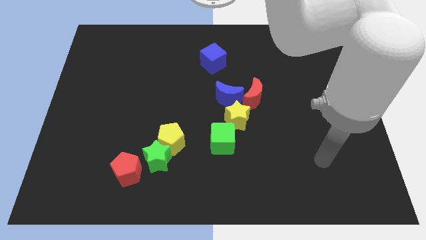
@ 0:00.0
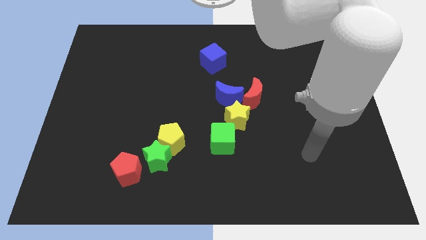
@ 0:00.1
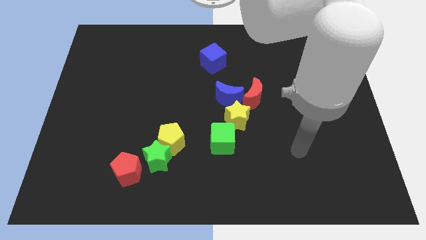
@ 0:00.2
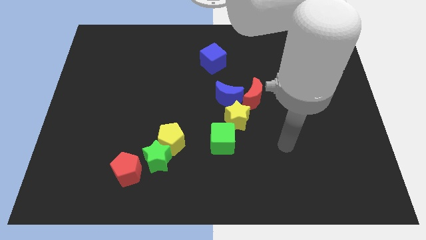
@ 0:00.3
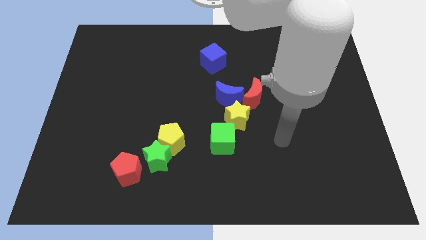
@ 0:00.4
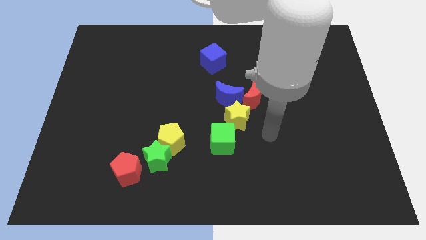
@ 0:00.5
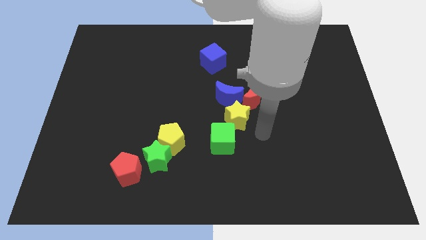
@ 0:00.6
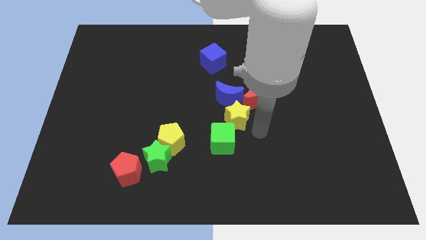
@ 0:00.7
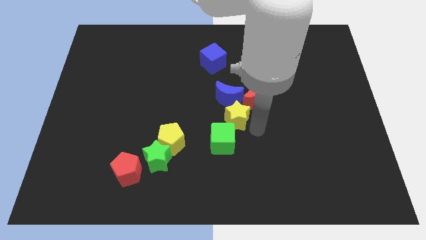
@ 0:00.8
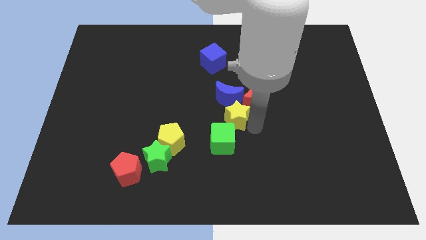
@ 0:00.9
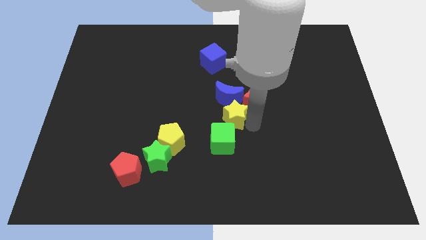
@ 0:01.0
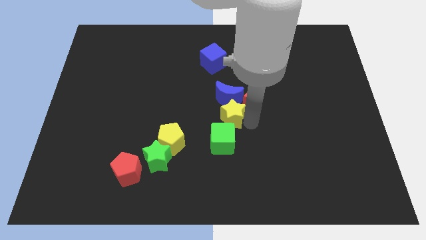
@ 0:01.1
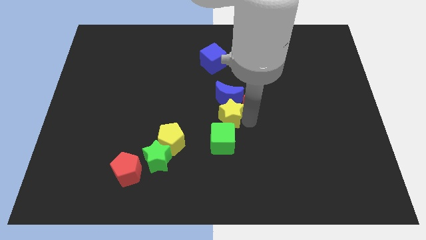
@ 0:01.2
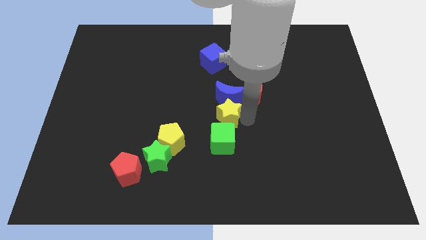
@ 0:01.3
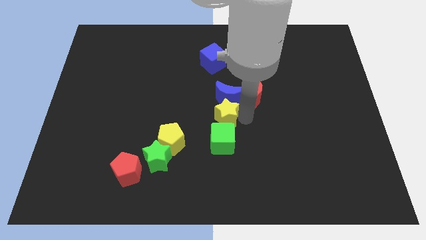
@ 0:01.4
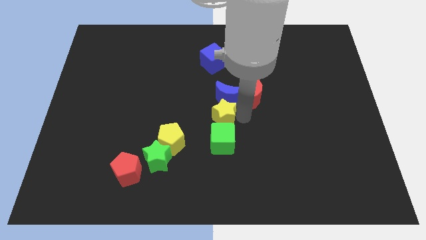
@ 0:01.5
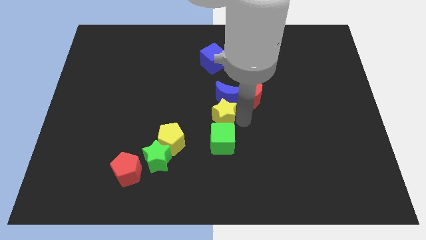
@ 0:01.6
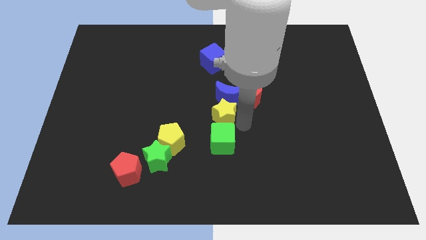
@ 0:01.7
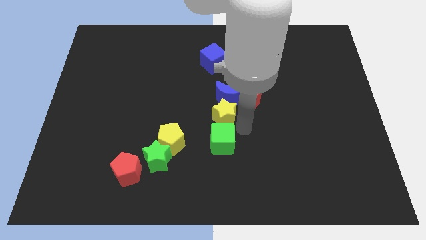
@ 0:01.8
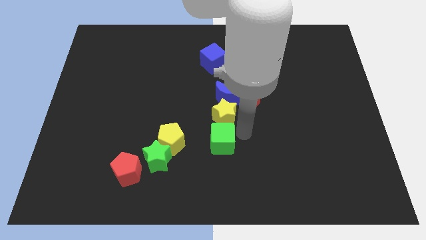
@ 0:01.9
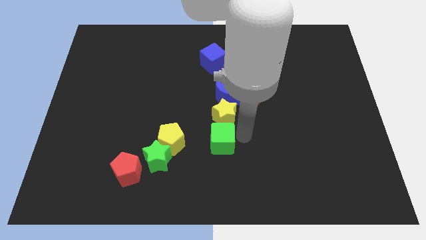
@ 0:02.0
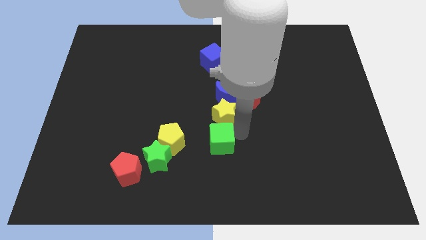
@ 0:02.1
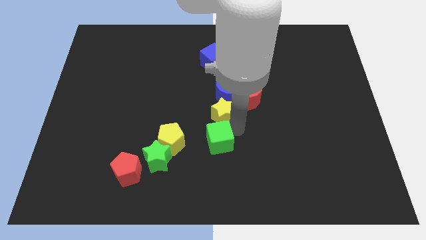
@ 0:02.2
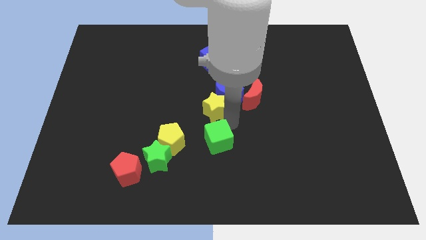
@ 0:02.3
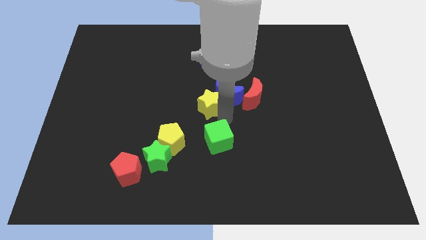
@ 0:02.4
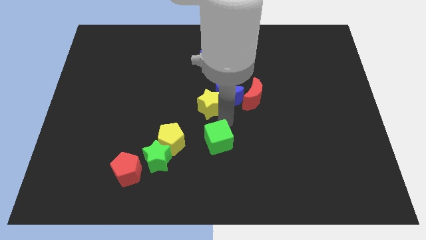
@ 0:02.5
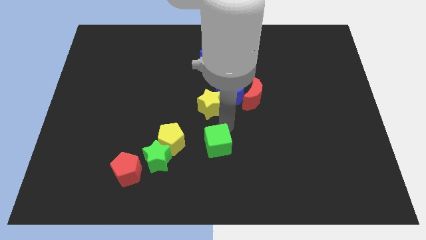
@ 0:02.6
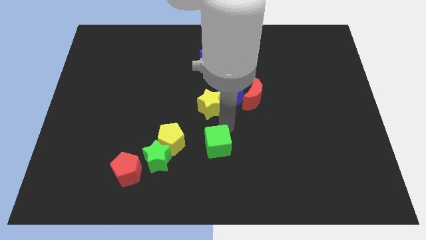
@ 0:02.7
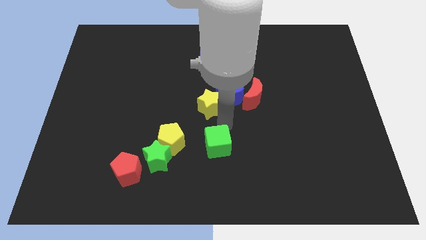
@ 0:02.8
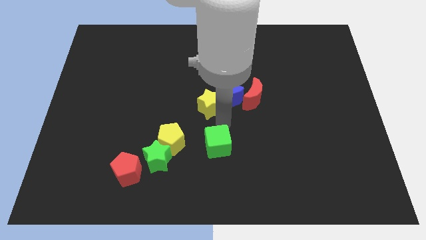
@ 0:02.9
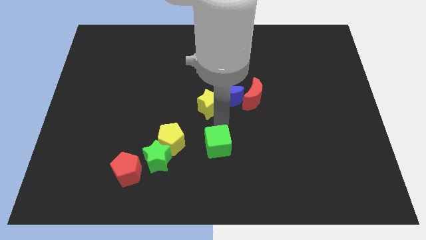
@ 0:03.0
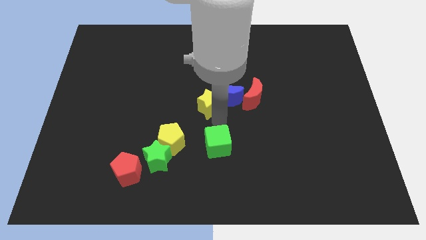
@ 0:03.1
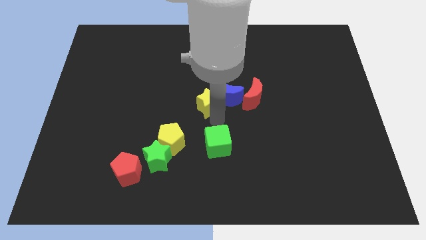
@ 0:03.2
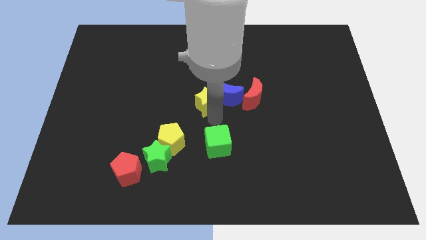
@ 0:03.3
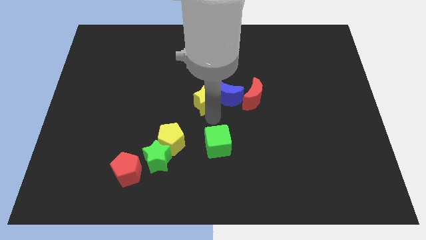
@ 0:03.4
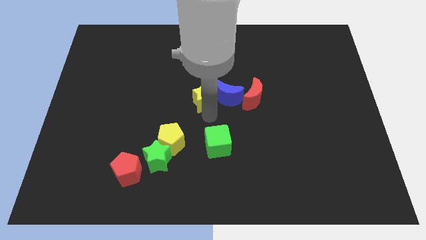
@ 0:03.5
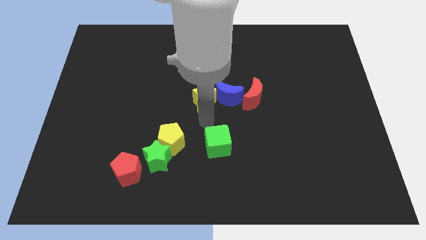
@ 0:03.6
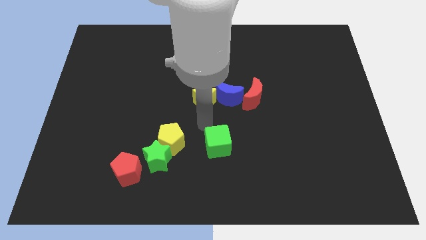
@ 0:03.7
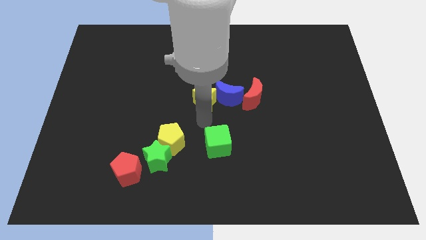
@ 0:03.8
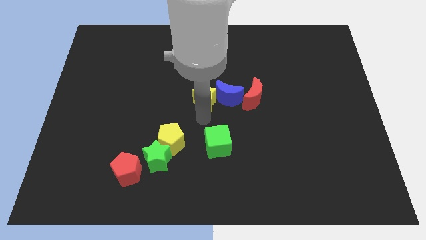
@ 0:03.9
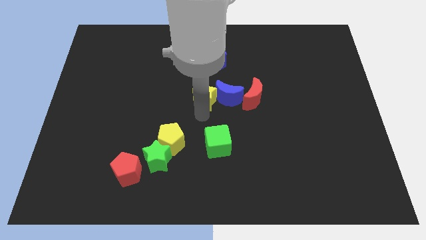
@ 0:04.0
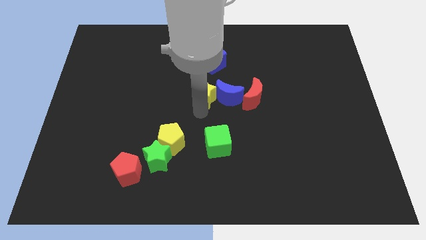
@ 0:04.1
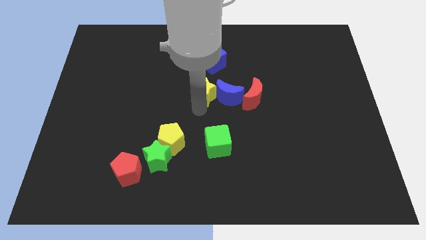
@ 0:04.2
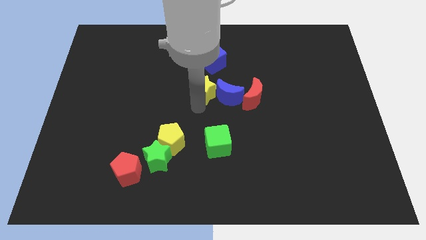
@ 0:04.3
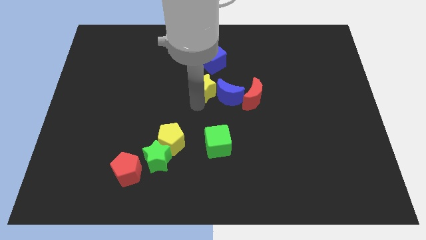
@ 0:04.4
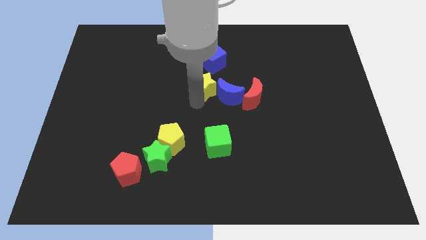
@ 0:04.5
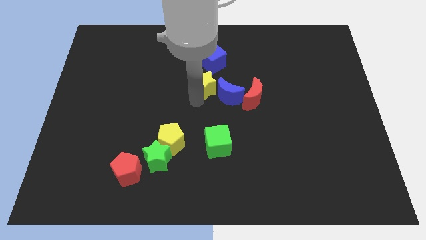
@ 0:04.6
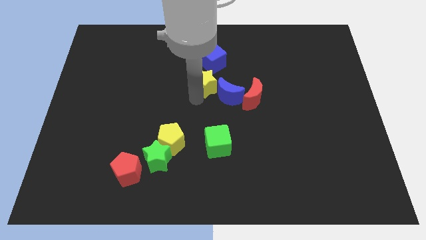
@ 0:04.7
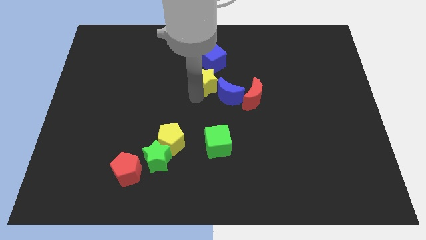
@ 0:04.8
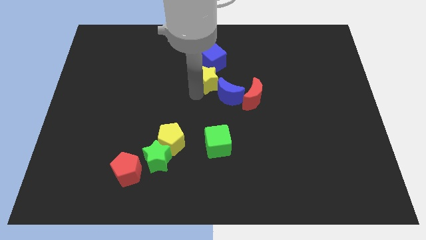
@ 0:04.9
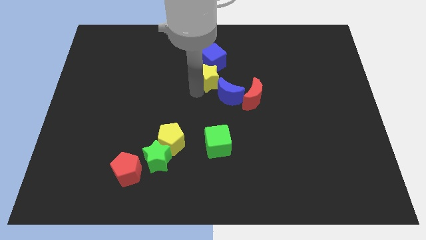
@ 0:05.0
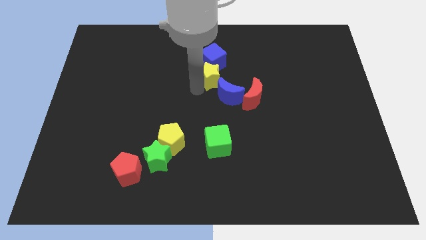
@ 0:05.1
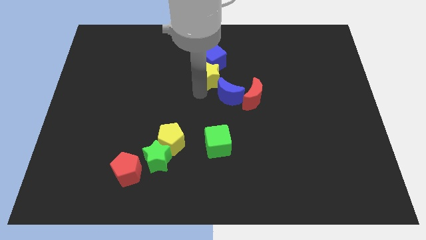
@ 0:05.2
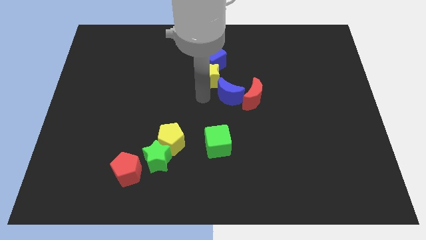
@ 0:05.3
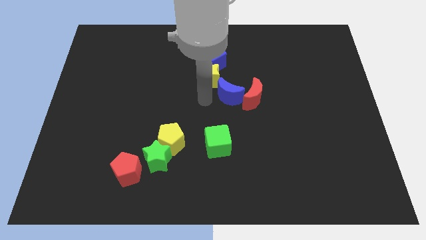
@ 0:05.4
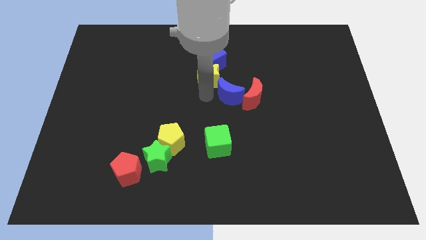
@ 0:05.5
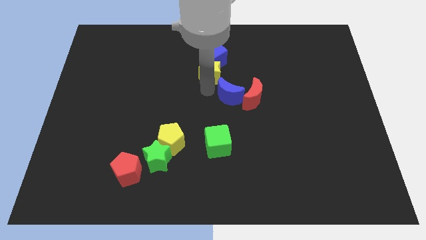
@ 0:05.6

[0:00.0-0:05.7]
move the yellow star close to the blue cube

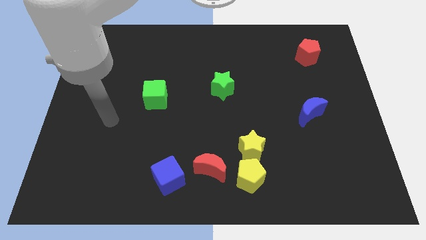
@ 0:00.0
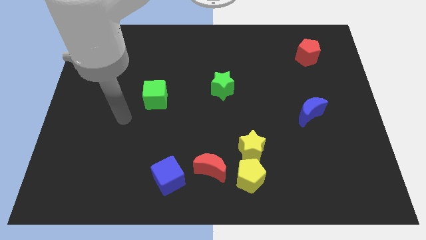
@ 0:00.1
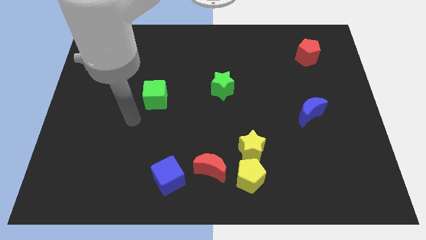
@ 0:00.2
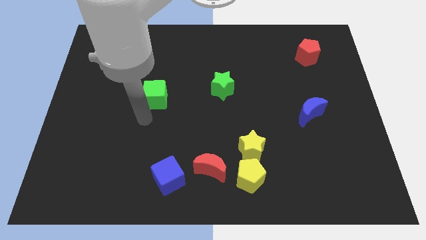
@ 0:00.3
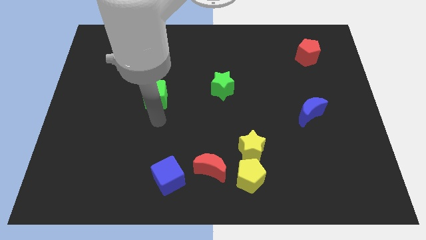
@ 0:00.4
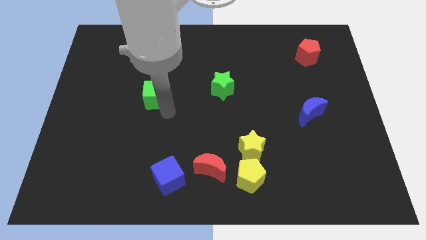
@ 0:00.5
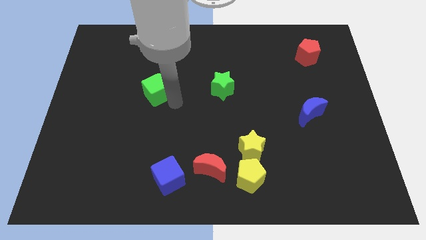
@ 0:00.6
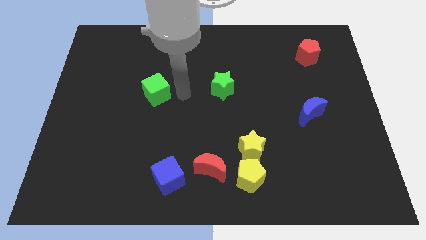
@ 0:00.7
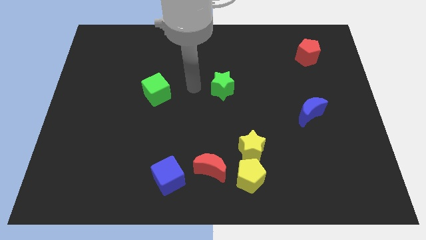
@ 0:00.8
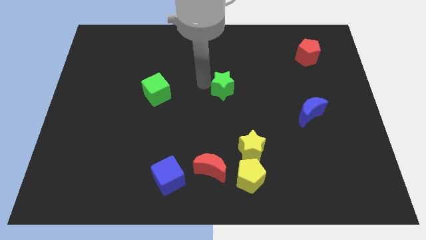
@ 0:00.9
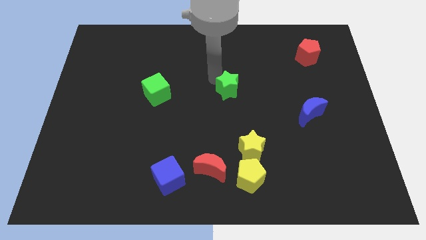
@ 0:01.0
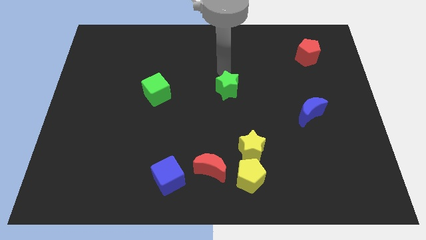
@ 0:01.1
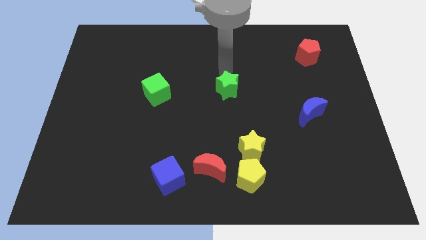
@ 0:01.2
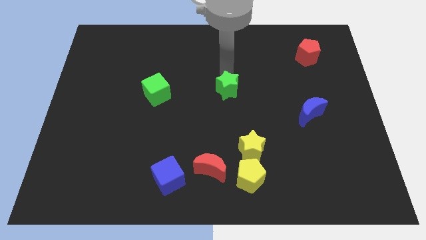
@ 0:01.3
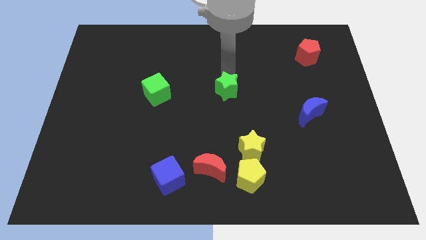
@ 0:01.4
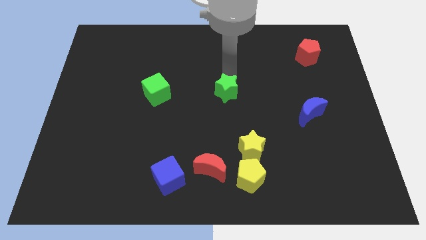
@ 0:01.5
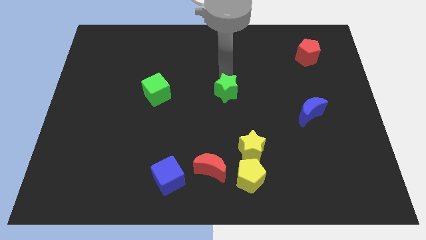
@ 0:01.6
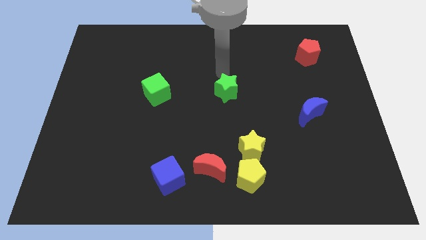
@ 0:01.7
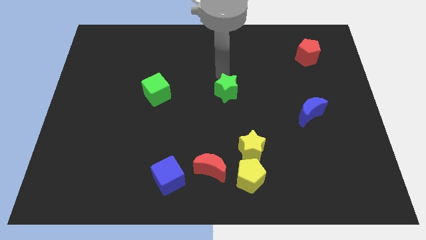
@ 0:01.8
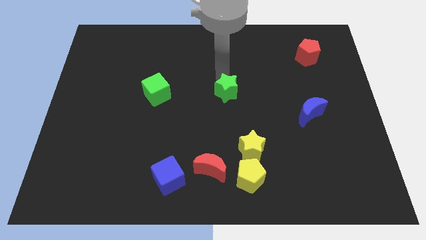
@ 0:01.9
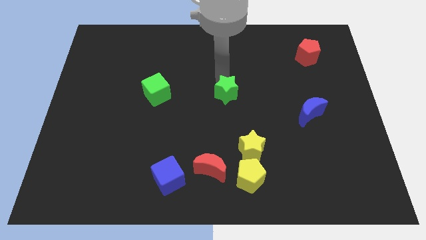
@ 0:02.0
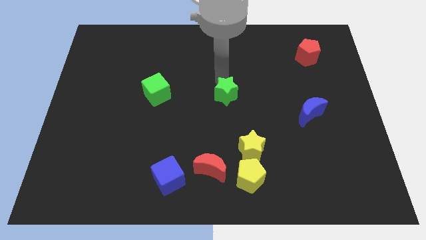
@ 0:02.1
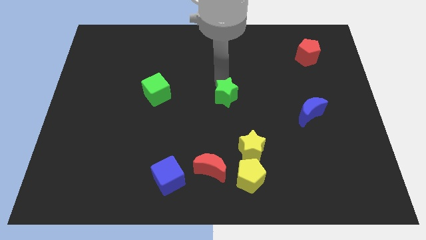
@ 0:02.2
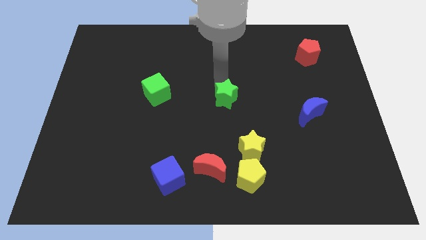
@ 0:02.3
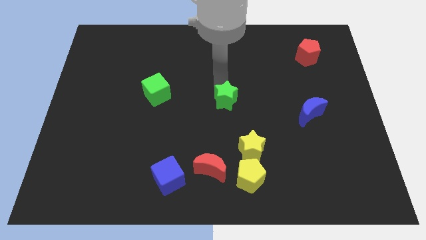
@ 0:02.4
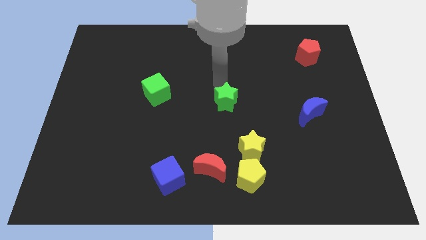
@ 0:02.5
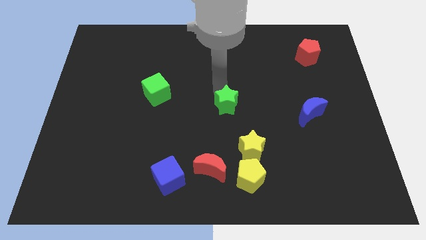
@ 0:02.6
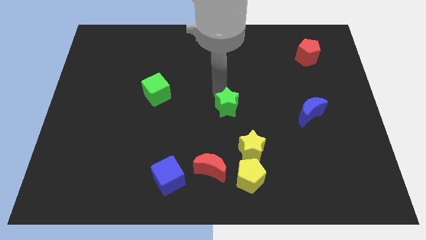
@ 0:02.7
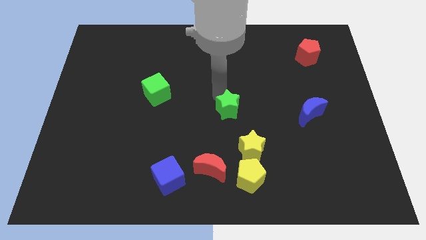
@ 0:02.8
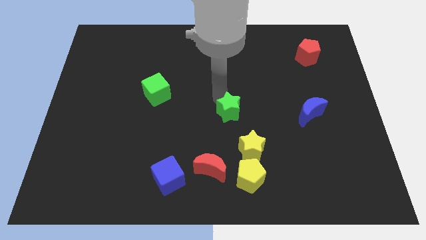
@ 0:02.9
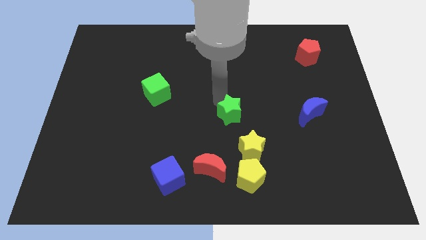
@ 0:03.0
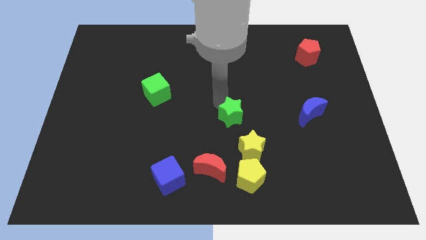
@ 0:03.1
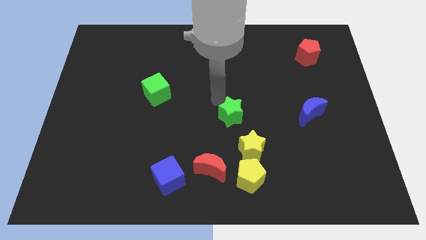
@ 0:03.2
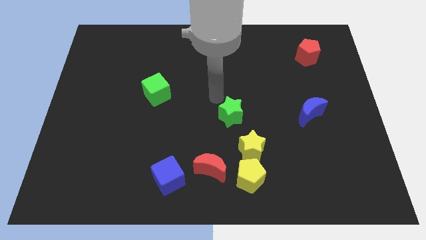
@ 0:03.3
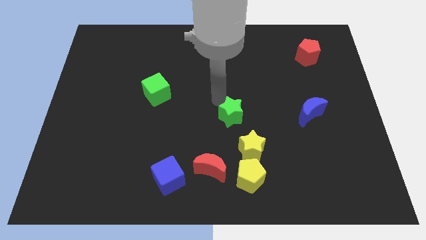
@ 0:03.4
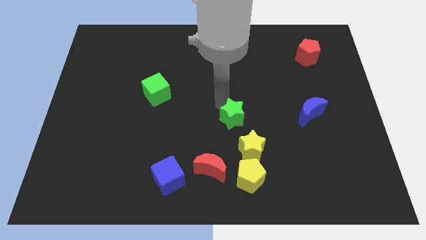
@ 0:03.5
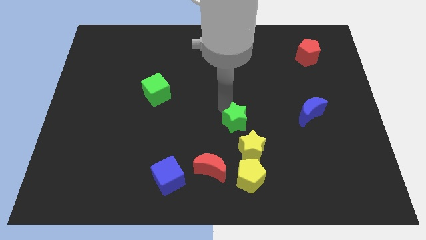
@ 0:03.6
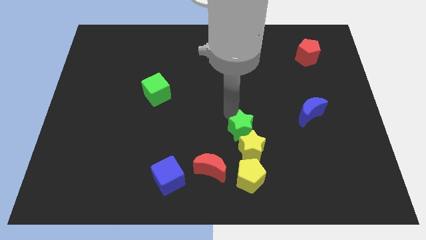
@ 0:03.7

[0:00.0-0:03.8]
put the green star next to the yellow star
